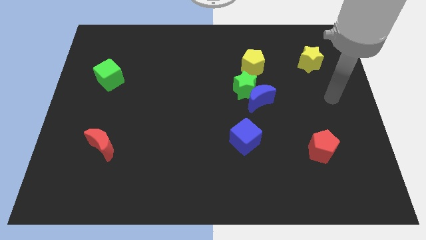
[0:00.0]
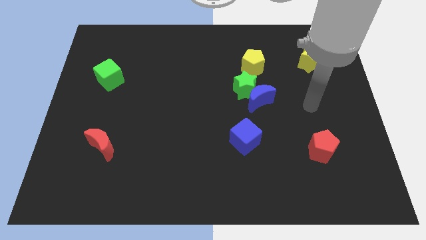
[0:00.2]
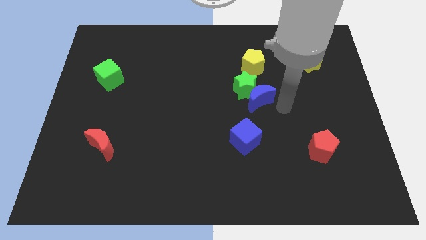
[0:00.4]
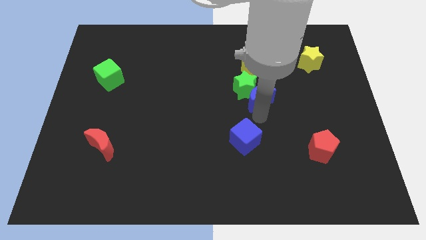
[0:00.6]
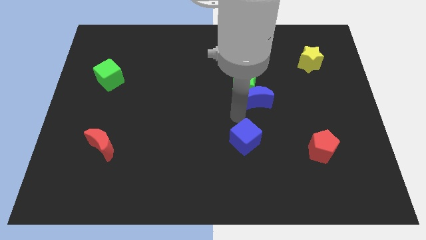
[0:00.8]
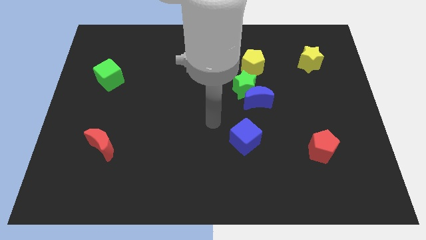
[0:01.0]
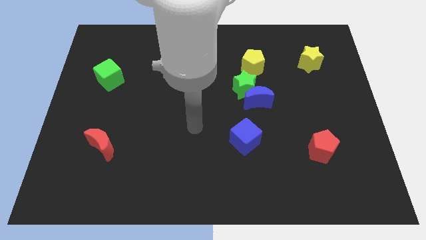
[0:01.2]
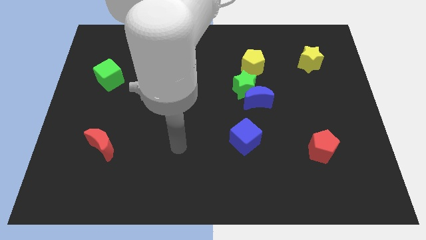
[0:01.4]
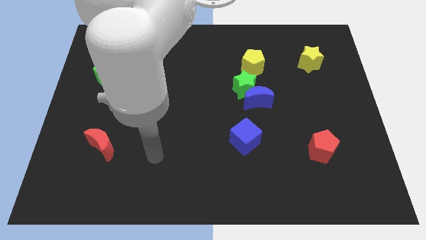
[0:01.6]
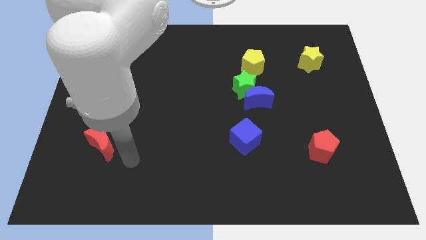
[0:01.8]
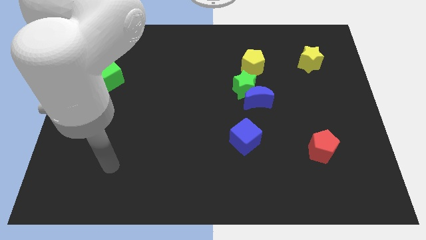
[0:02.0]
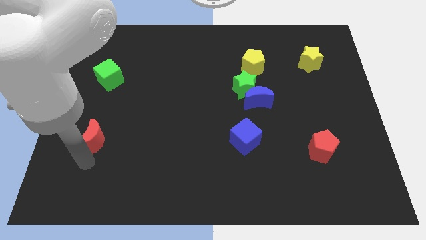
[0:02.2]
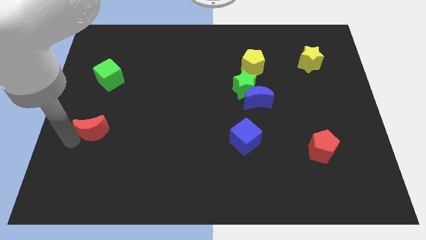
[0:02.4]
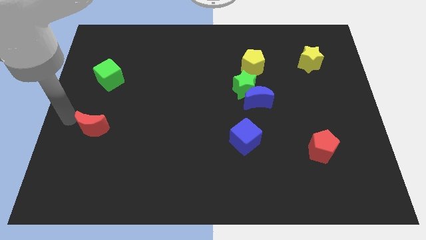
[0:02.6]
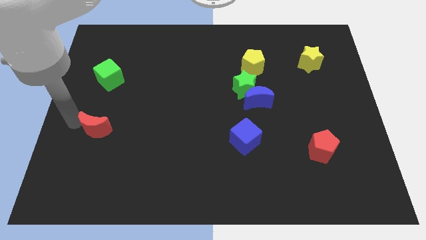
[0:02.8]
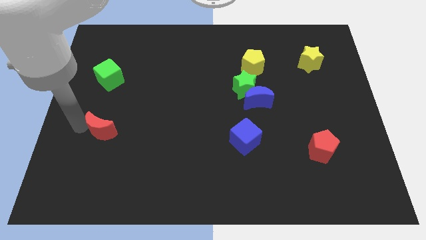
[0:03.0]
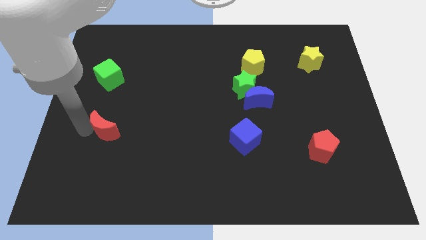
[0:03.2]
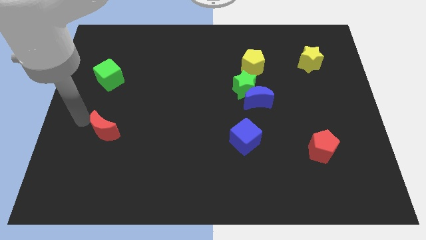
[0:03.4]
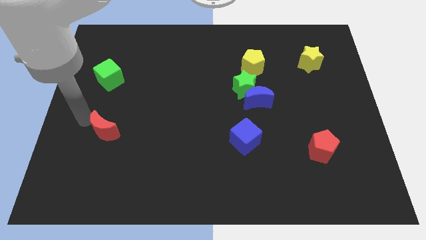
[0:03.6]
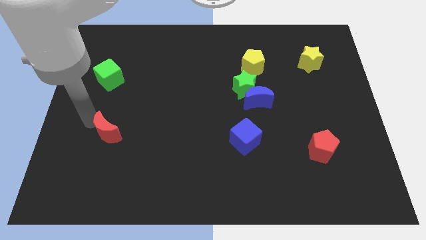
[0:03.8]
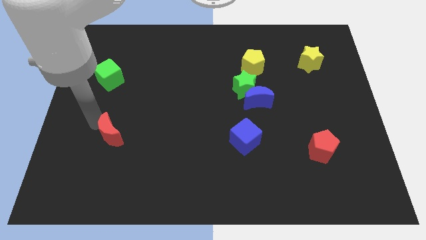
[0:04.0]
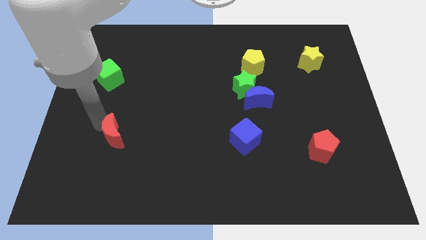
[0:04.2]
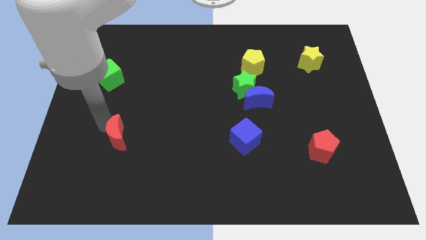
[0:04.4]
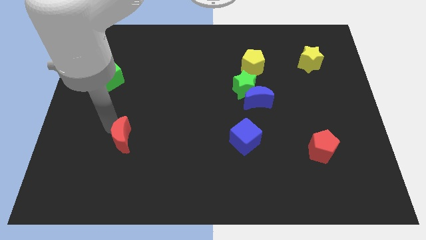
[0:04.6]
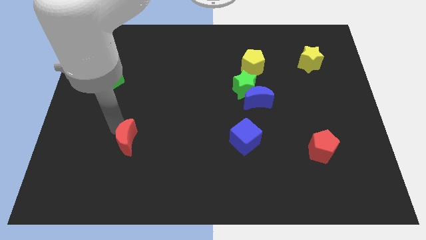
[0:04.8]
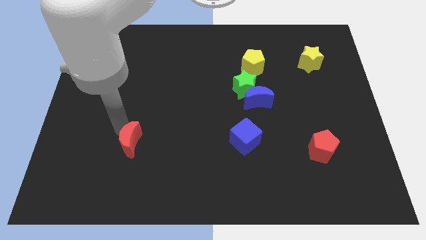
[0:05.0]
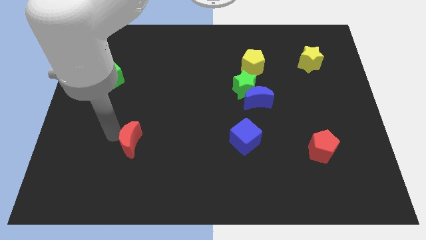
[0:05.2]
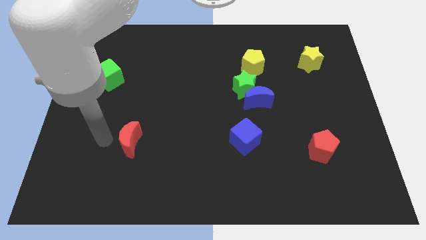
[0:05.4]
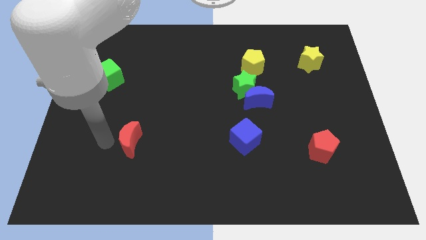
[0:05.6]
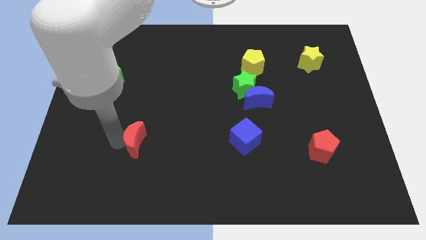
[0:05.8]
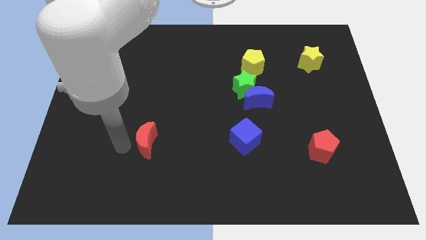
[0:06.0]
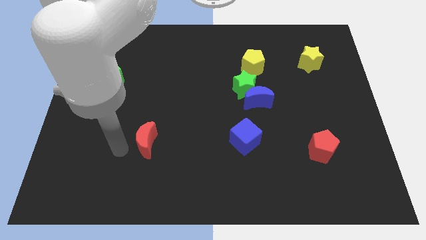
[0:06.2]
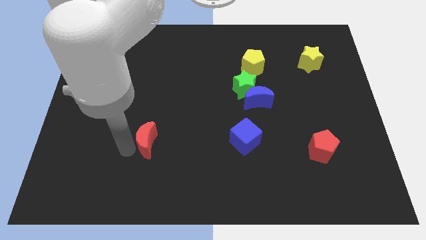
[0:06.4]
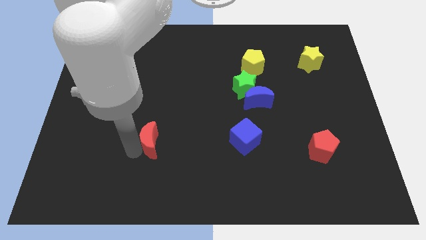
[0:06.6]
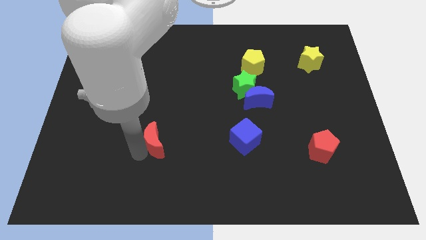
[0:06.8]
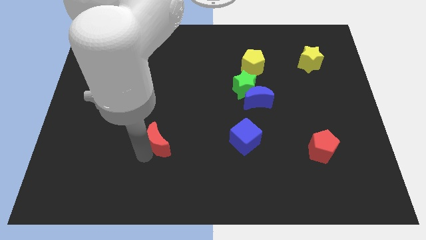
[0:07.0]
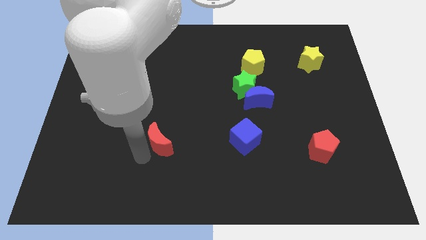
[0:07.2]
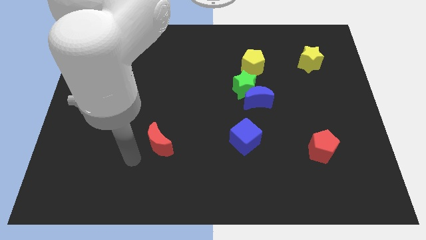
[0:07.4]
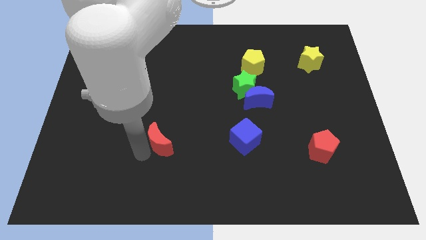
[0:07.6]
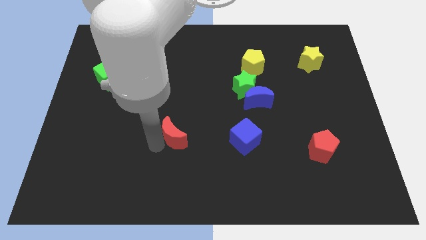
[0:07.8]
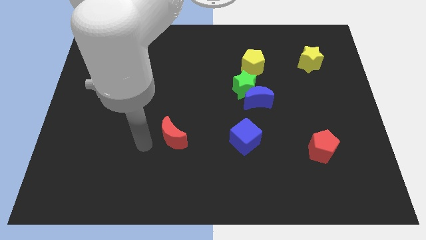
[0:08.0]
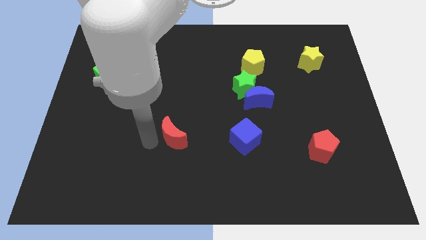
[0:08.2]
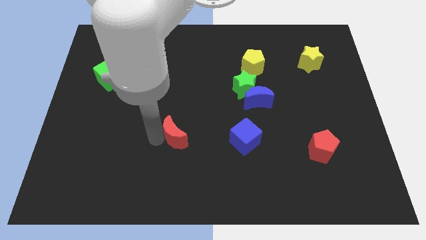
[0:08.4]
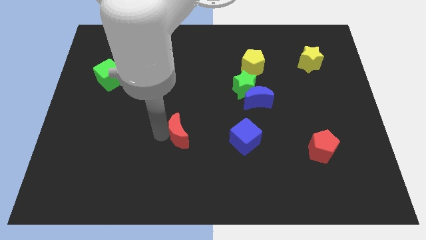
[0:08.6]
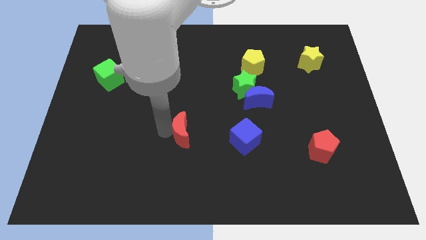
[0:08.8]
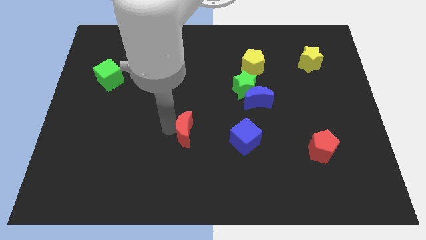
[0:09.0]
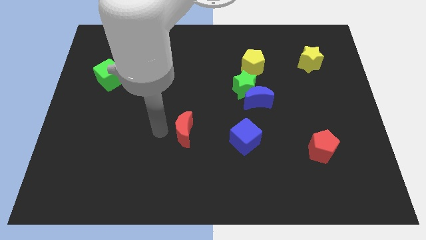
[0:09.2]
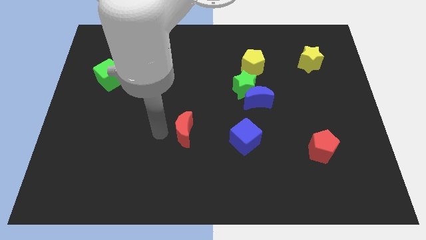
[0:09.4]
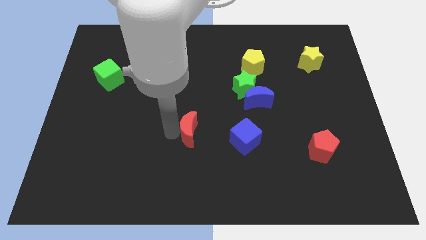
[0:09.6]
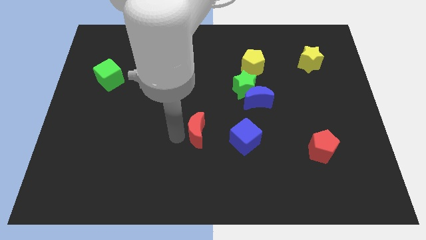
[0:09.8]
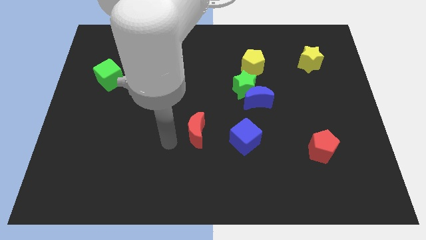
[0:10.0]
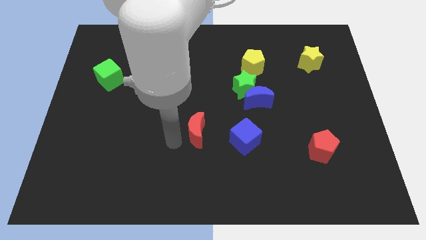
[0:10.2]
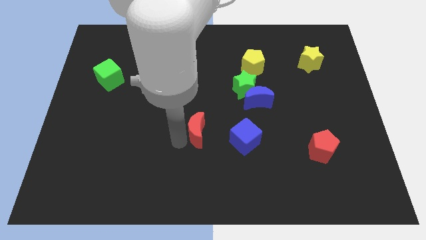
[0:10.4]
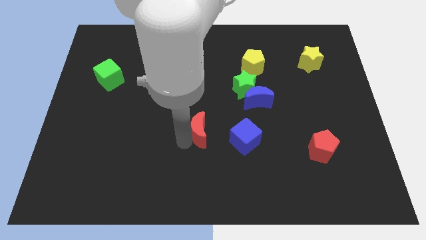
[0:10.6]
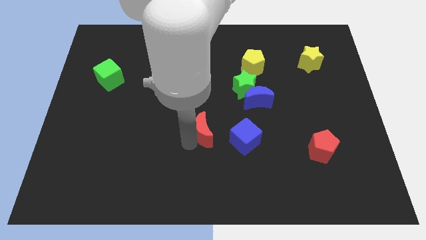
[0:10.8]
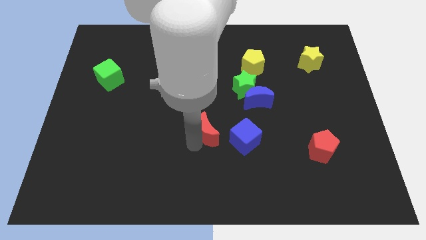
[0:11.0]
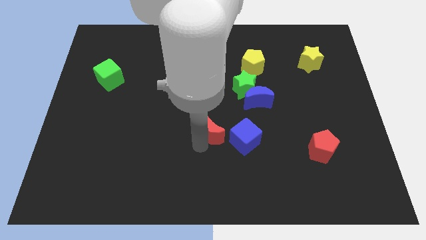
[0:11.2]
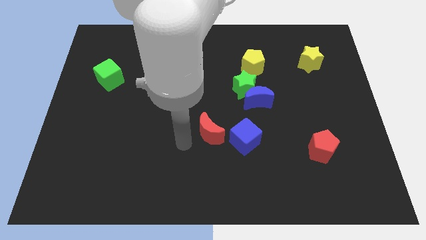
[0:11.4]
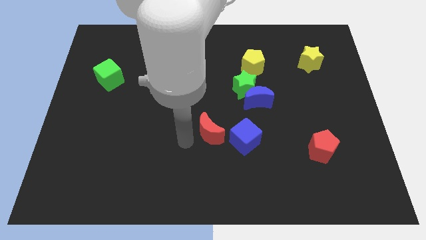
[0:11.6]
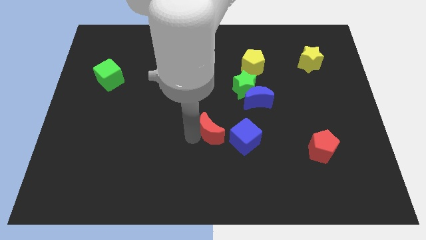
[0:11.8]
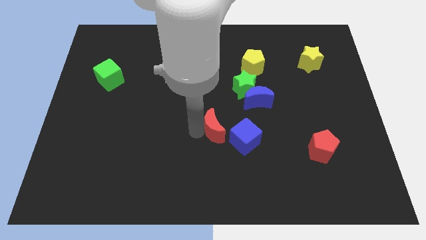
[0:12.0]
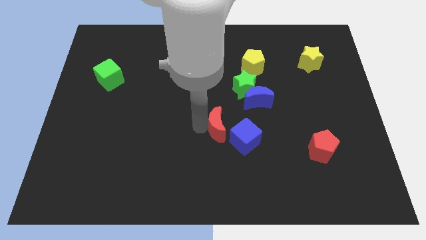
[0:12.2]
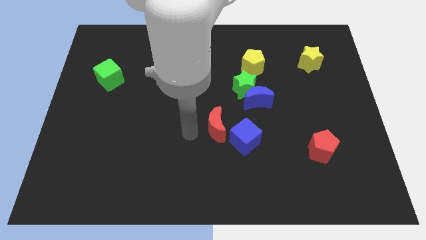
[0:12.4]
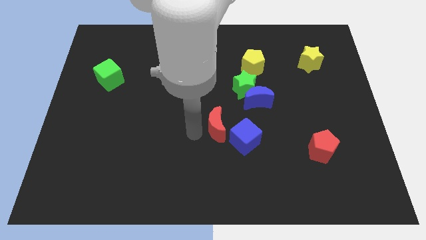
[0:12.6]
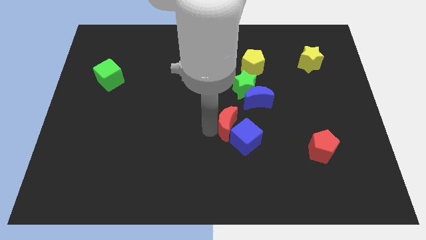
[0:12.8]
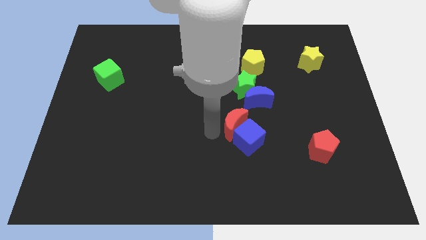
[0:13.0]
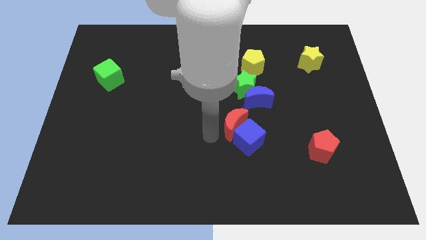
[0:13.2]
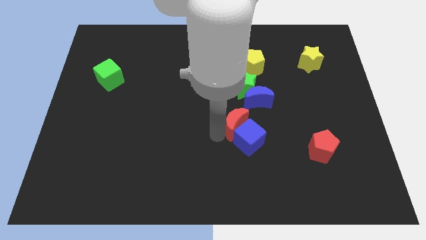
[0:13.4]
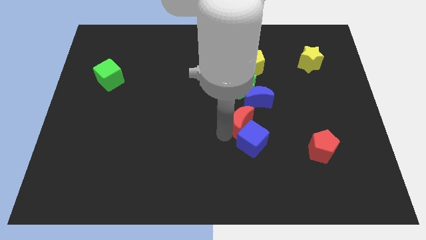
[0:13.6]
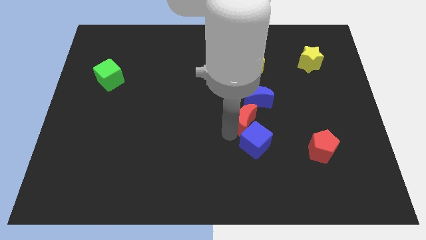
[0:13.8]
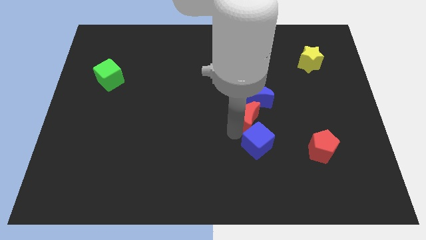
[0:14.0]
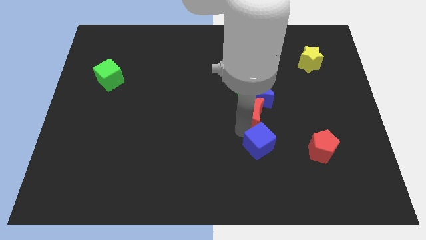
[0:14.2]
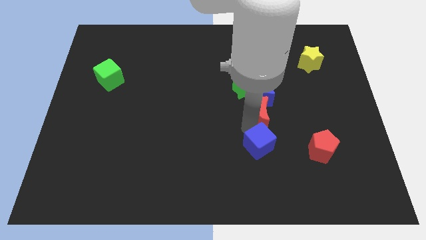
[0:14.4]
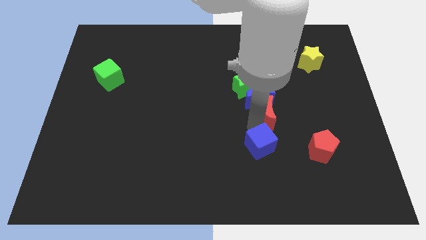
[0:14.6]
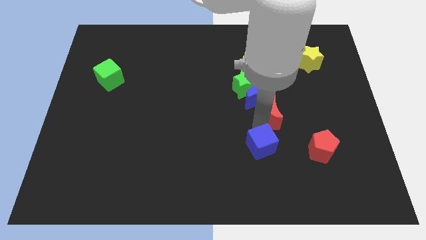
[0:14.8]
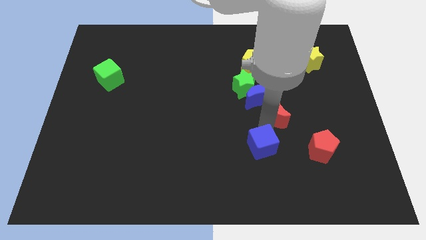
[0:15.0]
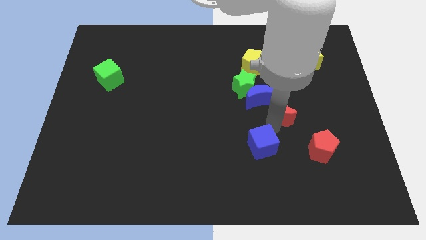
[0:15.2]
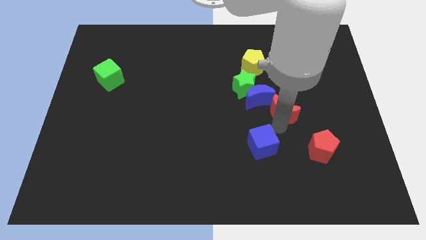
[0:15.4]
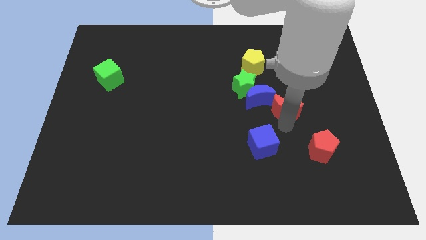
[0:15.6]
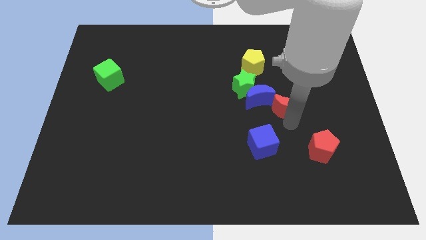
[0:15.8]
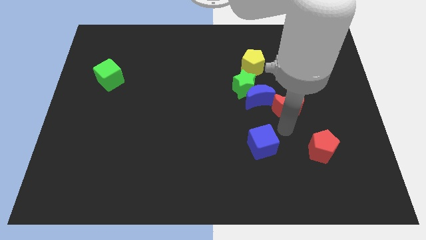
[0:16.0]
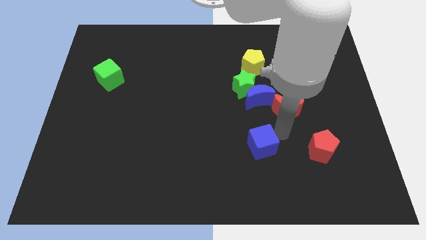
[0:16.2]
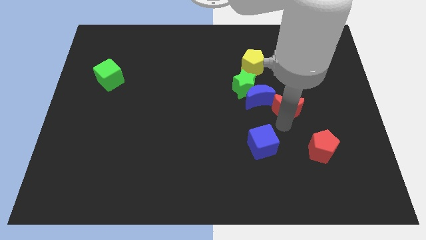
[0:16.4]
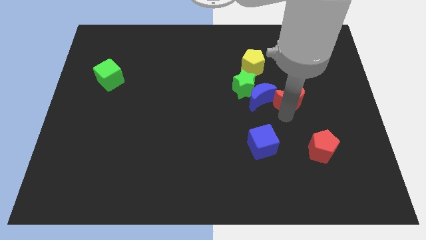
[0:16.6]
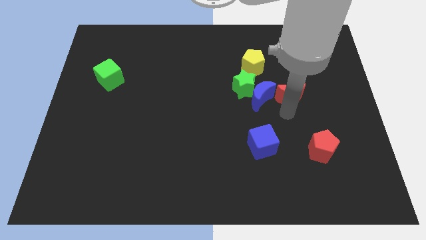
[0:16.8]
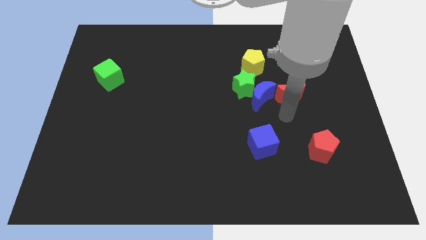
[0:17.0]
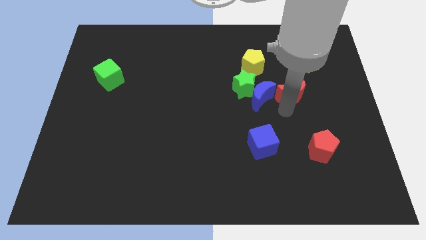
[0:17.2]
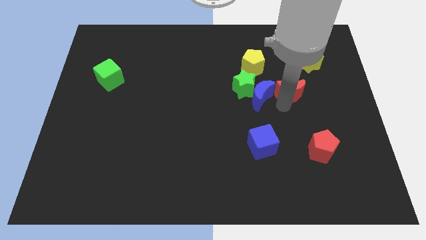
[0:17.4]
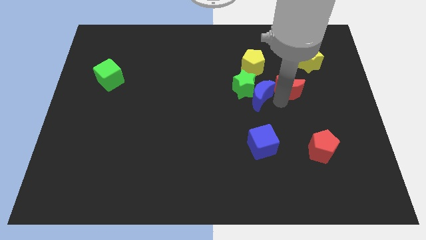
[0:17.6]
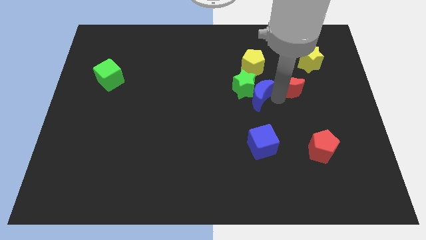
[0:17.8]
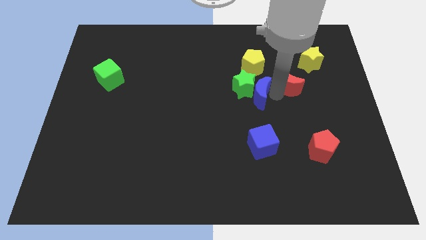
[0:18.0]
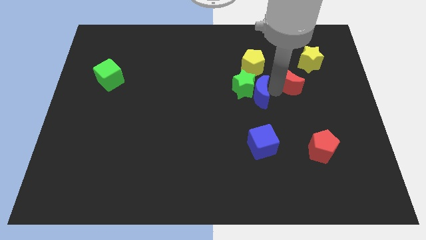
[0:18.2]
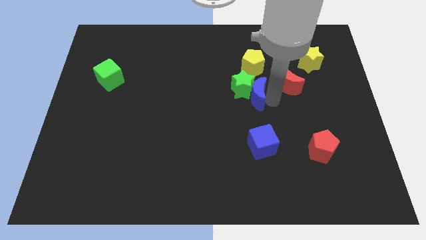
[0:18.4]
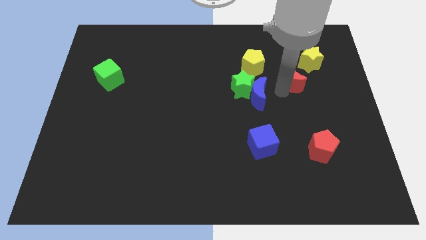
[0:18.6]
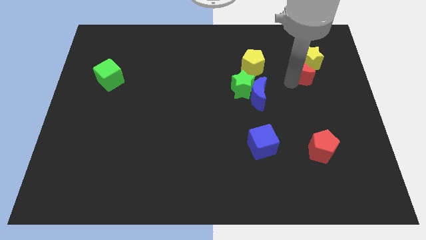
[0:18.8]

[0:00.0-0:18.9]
slide the red moon close to the yellow star
